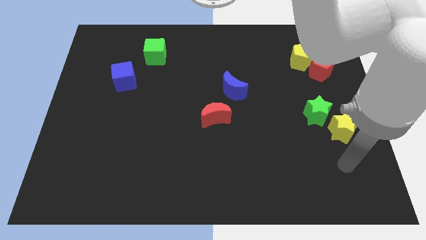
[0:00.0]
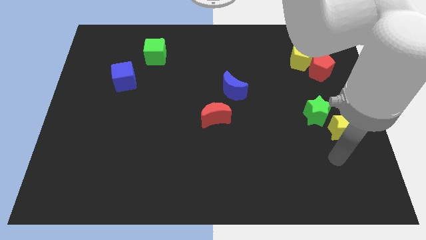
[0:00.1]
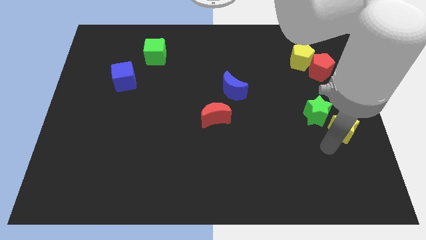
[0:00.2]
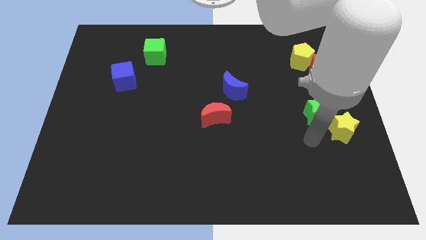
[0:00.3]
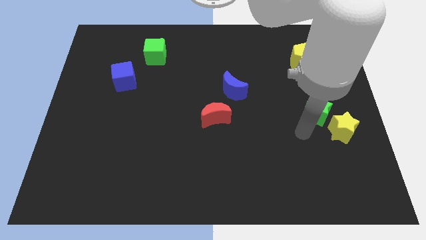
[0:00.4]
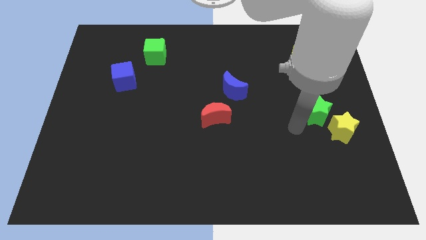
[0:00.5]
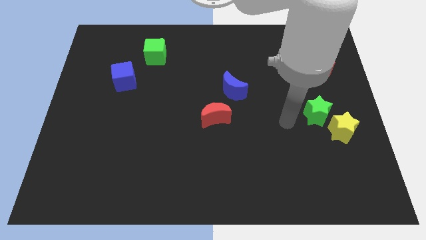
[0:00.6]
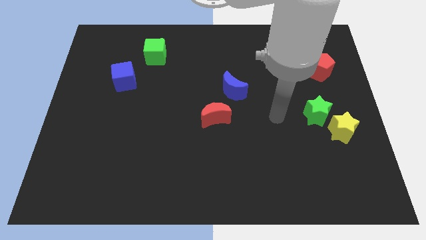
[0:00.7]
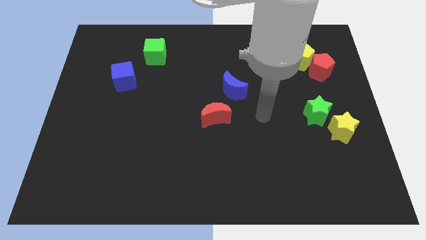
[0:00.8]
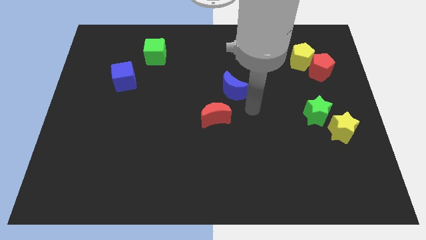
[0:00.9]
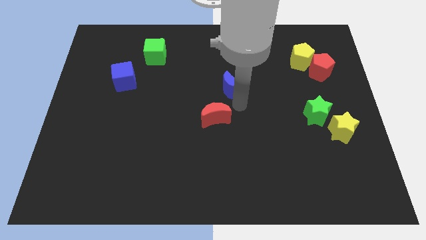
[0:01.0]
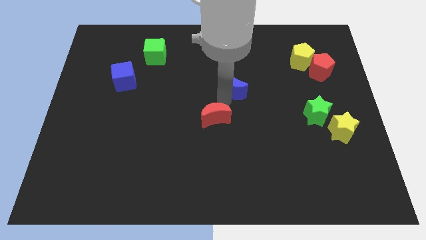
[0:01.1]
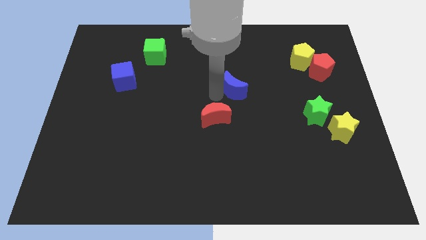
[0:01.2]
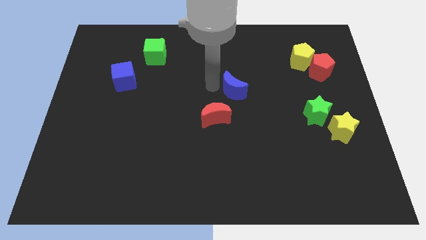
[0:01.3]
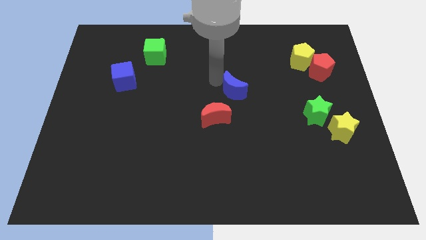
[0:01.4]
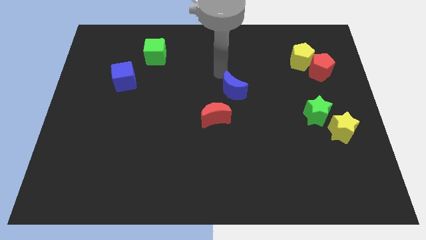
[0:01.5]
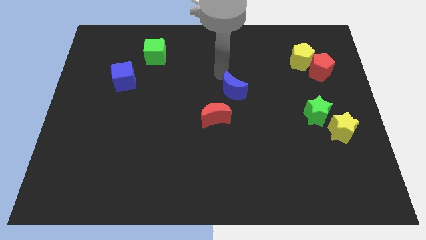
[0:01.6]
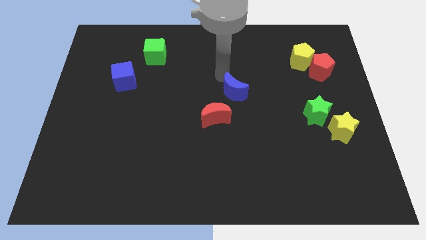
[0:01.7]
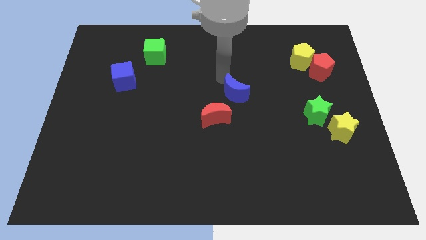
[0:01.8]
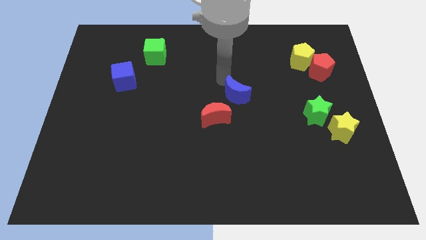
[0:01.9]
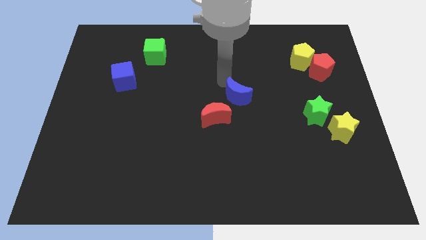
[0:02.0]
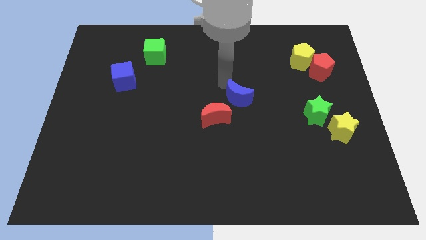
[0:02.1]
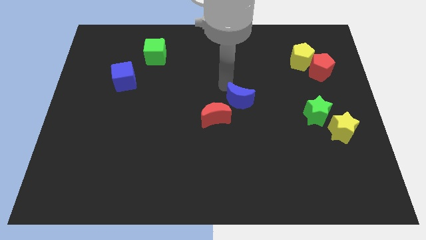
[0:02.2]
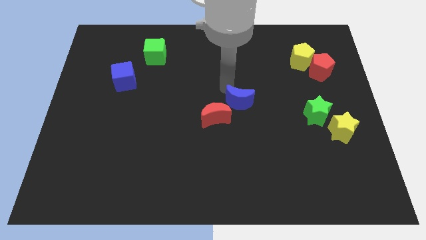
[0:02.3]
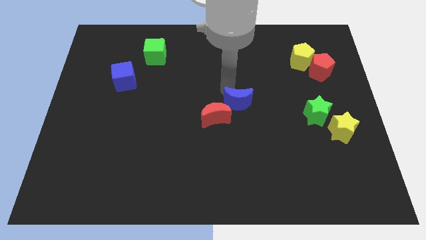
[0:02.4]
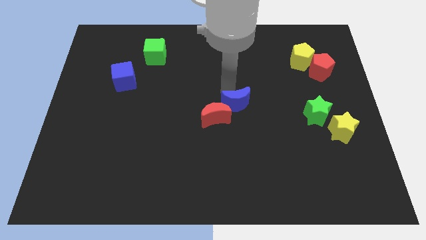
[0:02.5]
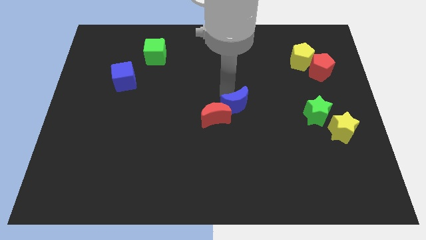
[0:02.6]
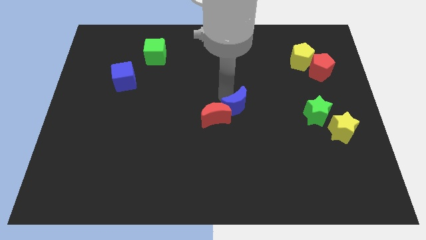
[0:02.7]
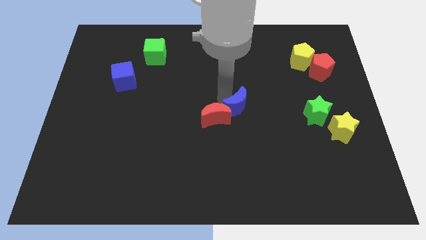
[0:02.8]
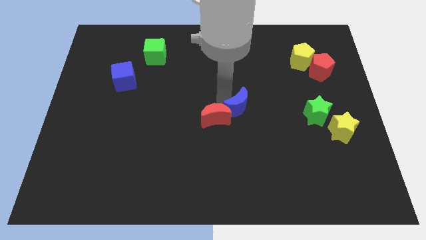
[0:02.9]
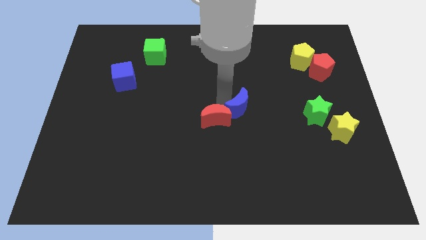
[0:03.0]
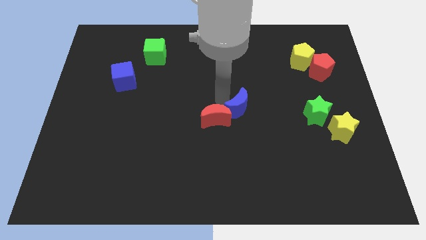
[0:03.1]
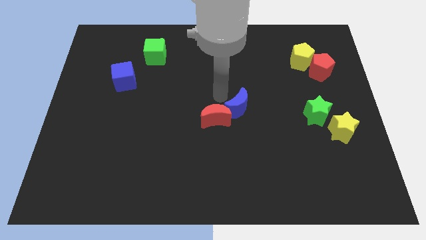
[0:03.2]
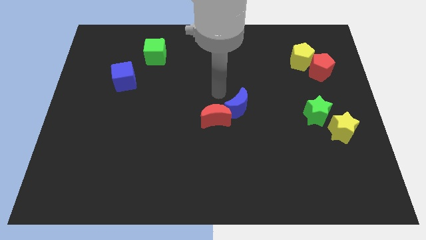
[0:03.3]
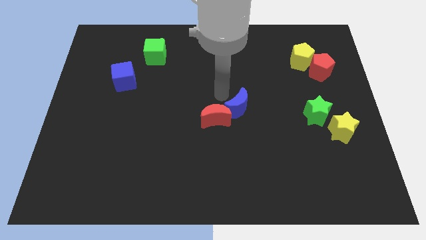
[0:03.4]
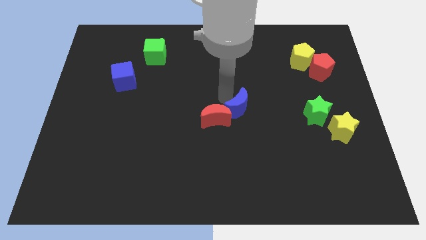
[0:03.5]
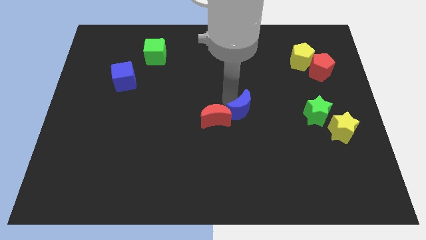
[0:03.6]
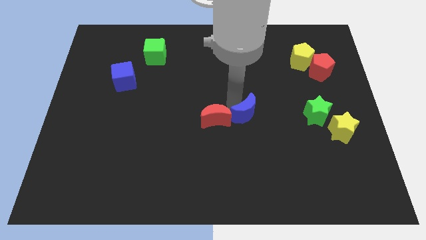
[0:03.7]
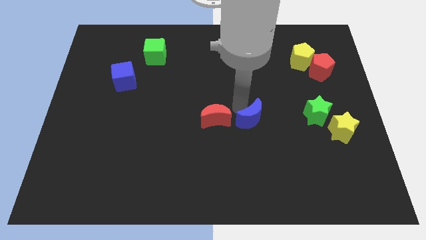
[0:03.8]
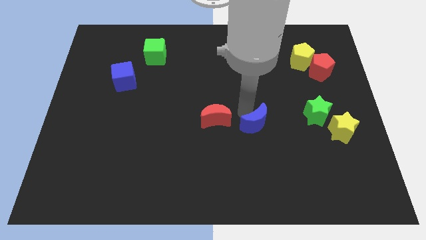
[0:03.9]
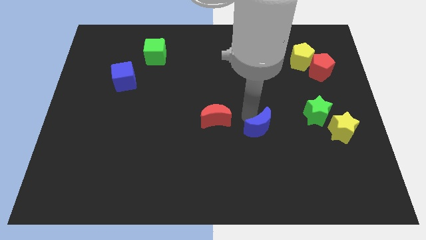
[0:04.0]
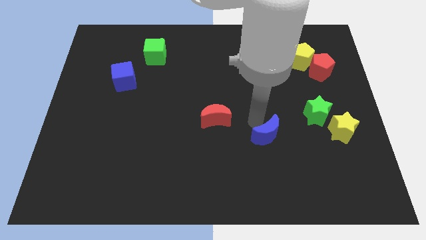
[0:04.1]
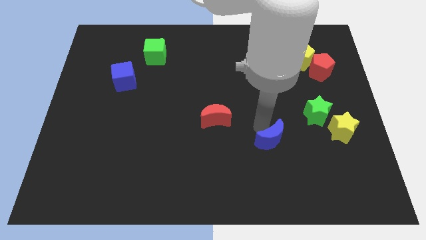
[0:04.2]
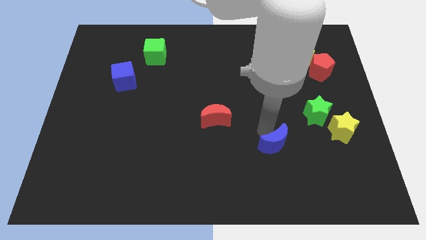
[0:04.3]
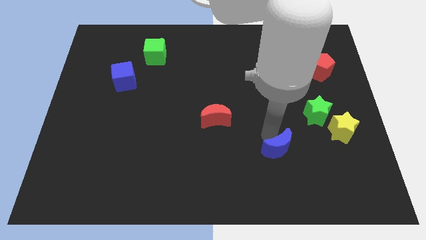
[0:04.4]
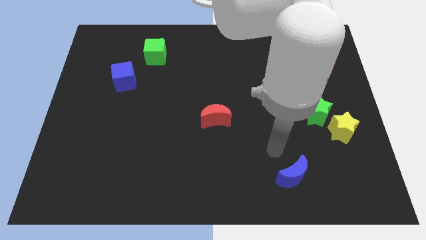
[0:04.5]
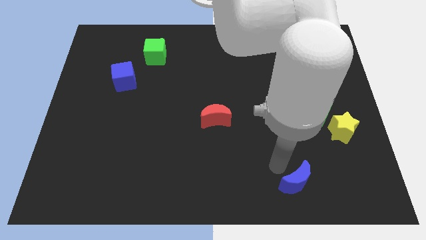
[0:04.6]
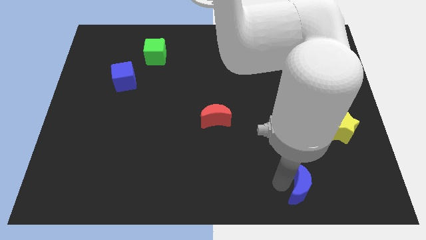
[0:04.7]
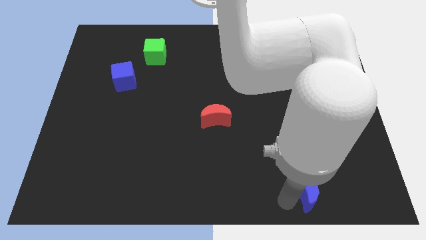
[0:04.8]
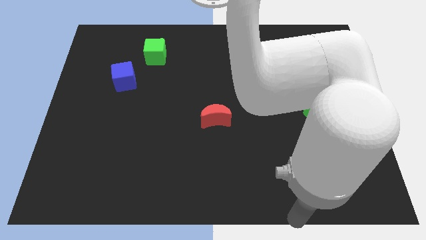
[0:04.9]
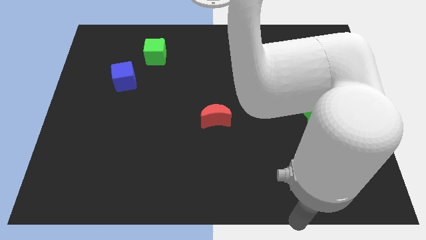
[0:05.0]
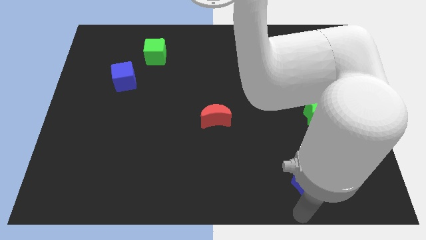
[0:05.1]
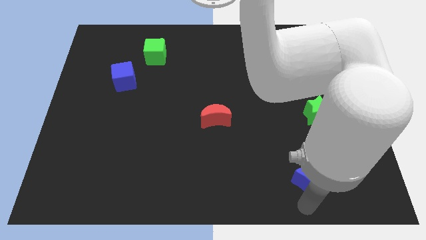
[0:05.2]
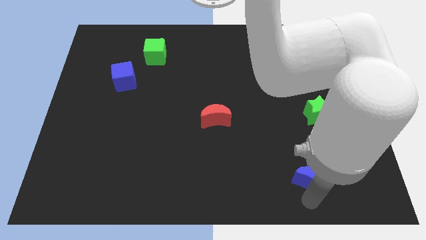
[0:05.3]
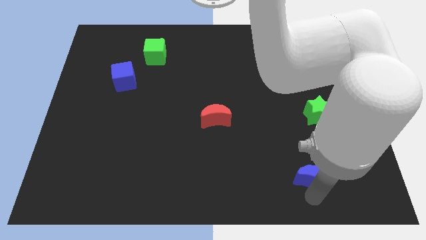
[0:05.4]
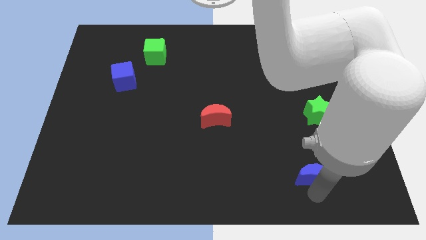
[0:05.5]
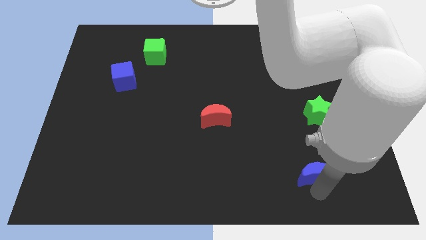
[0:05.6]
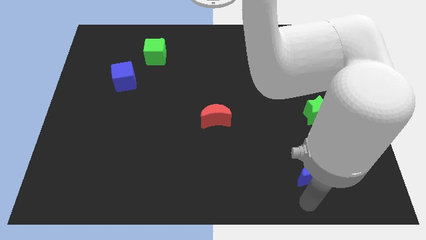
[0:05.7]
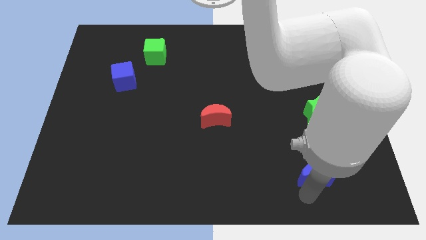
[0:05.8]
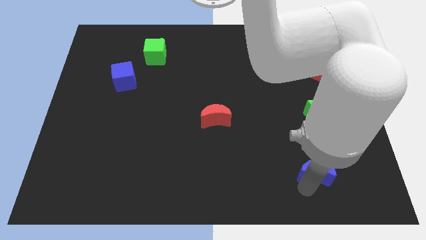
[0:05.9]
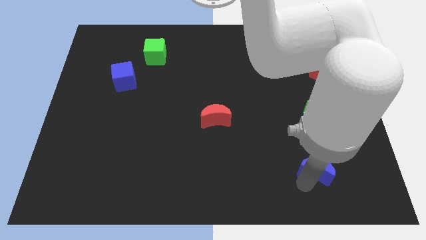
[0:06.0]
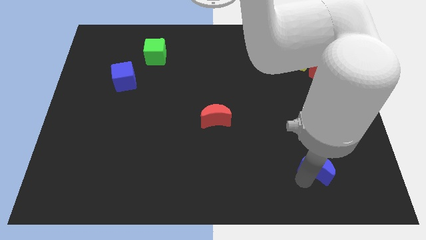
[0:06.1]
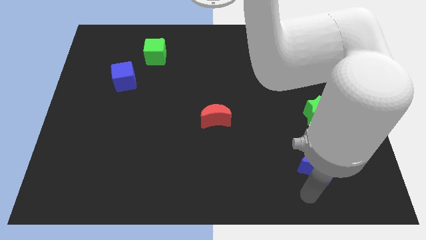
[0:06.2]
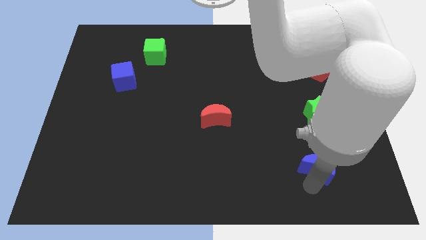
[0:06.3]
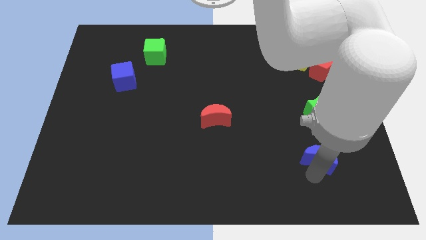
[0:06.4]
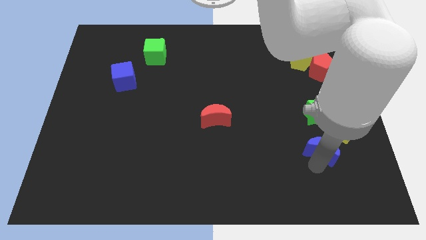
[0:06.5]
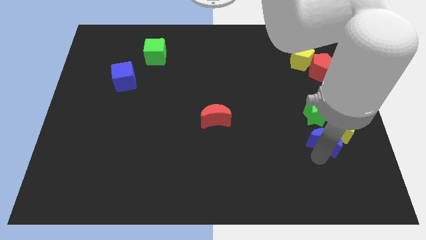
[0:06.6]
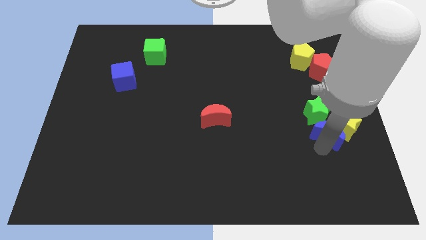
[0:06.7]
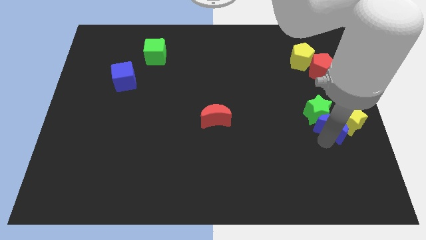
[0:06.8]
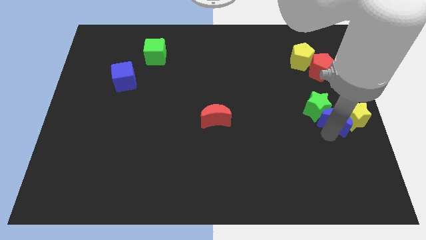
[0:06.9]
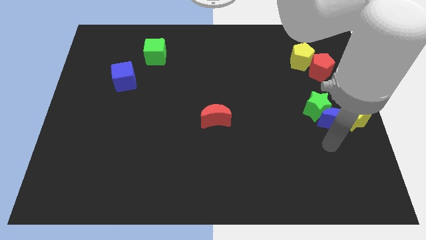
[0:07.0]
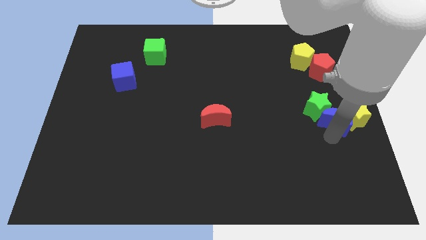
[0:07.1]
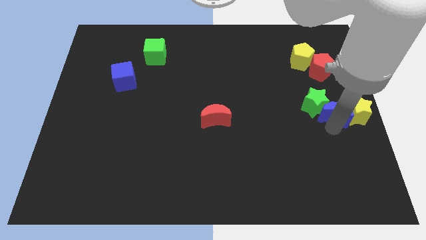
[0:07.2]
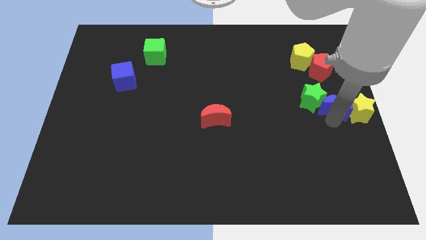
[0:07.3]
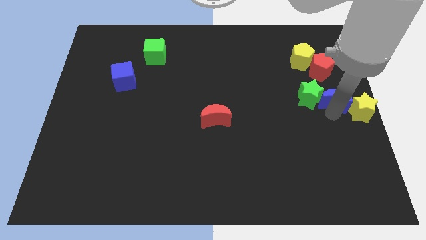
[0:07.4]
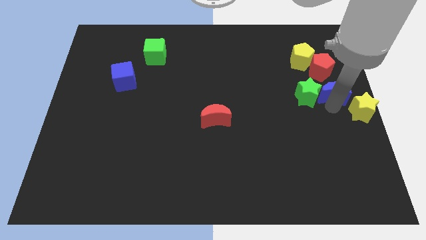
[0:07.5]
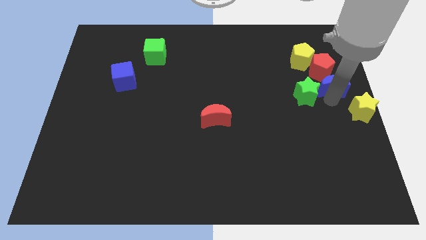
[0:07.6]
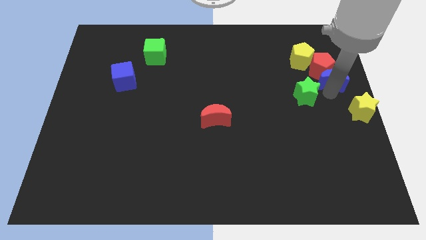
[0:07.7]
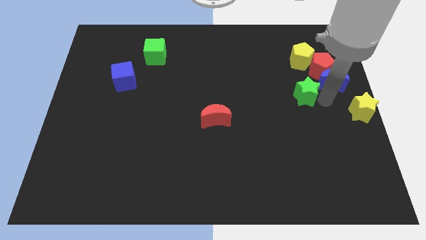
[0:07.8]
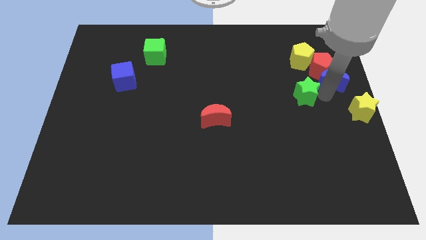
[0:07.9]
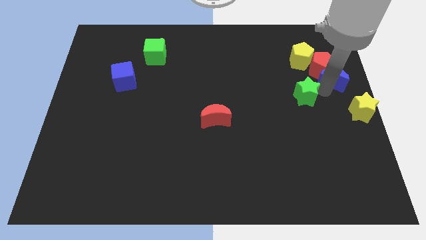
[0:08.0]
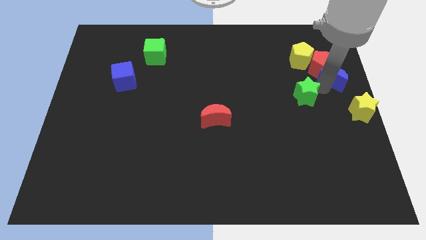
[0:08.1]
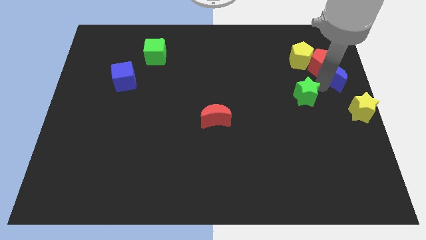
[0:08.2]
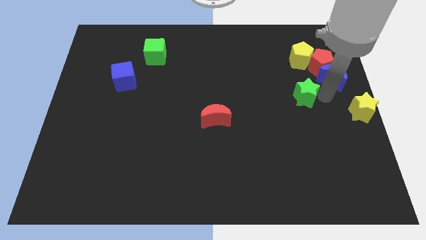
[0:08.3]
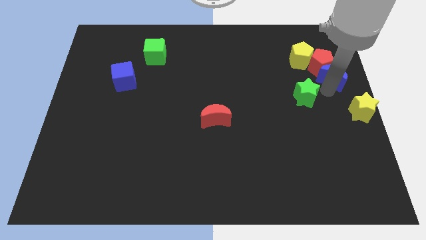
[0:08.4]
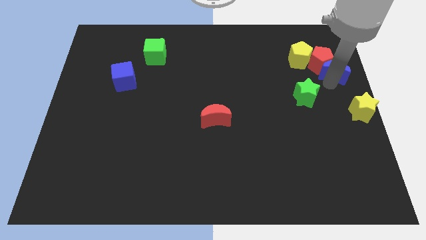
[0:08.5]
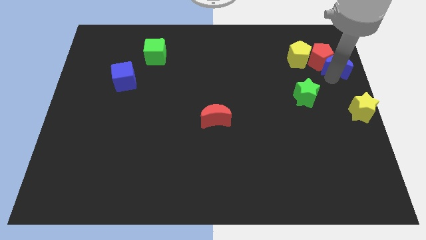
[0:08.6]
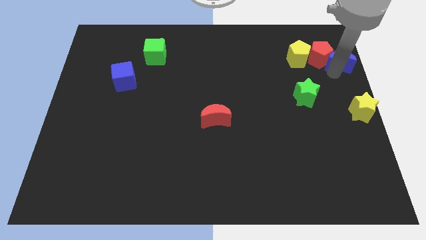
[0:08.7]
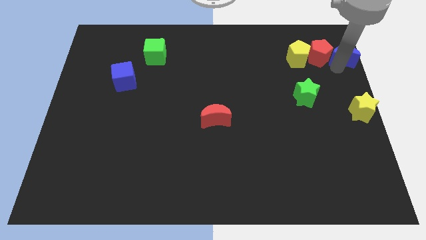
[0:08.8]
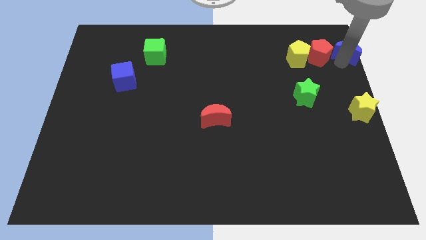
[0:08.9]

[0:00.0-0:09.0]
slide the blue moon to the upper right corner
